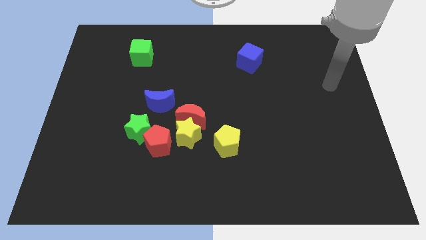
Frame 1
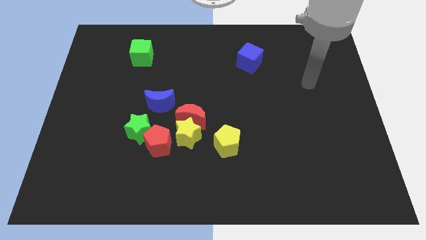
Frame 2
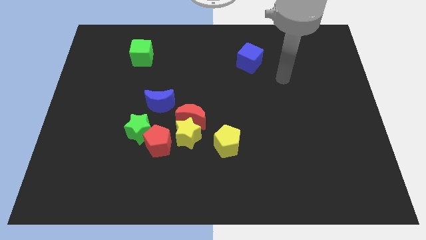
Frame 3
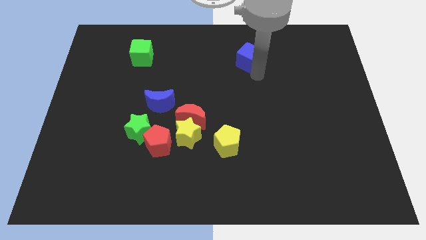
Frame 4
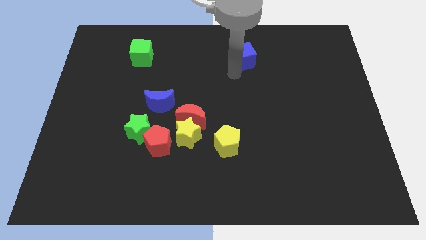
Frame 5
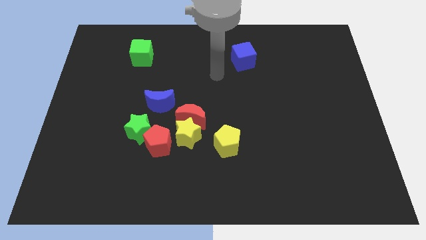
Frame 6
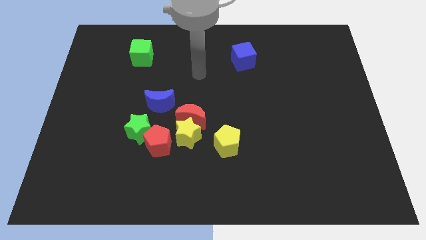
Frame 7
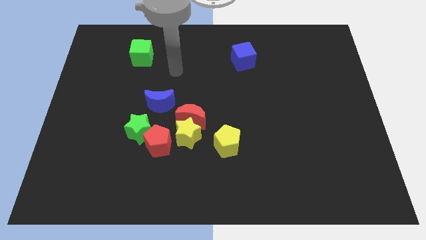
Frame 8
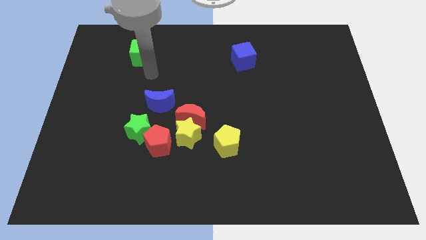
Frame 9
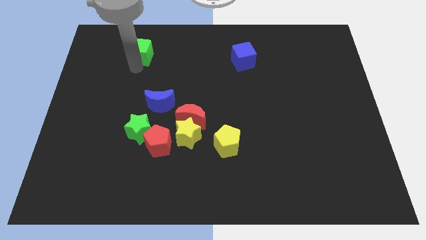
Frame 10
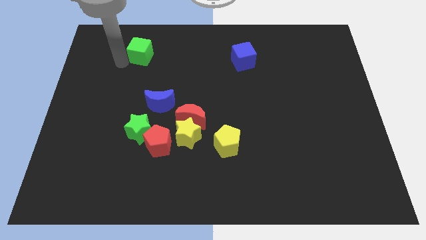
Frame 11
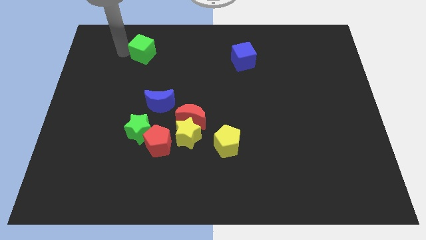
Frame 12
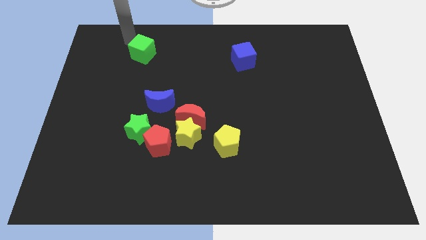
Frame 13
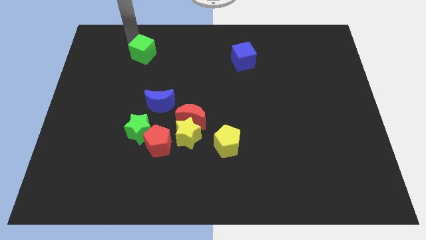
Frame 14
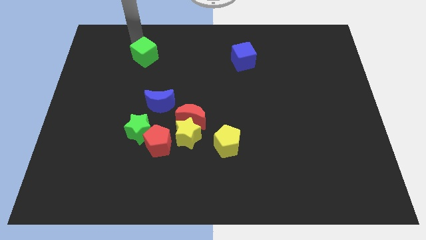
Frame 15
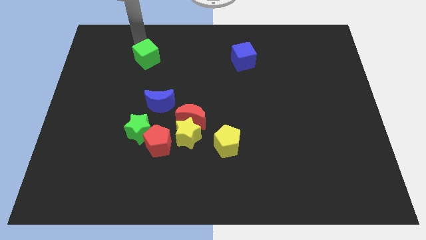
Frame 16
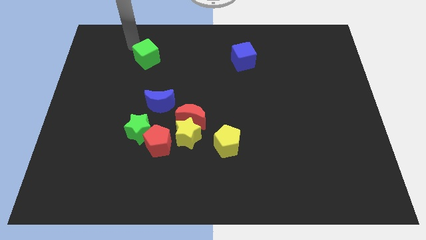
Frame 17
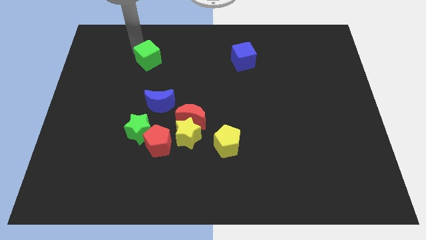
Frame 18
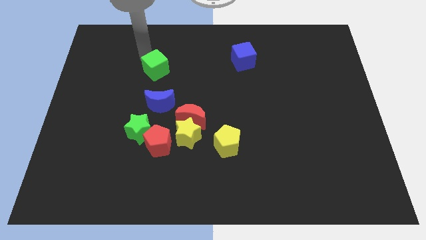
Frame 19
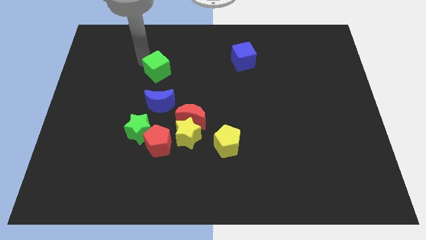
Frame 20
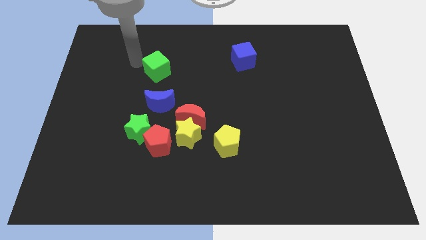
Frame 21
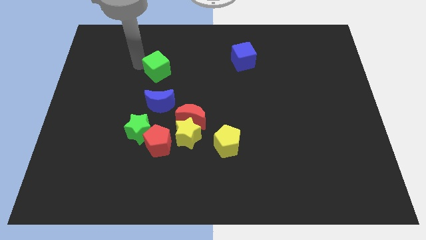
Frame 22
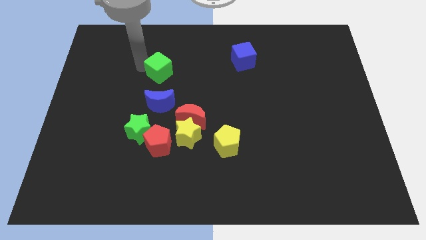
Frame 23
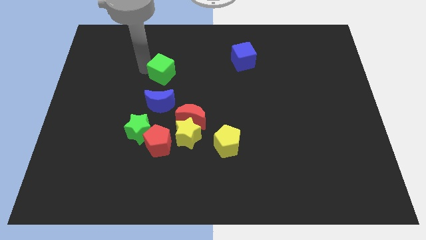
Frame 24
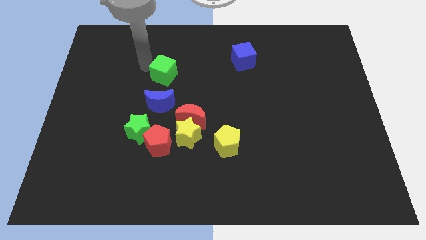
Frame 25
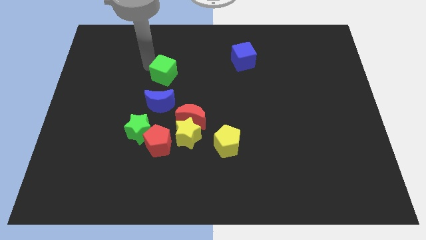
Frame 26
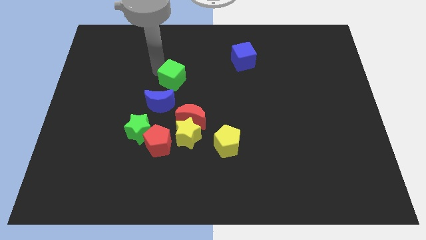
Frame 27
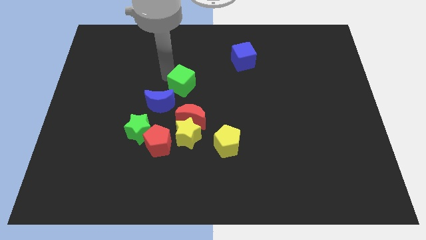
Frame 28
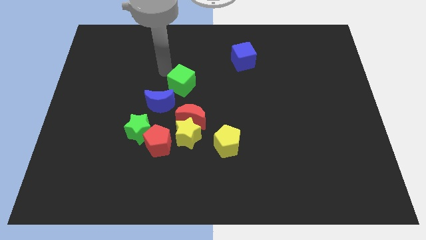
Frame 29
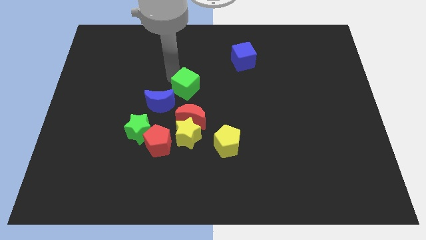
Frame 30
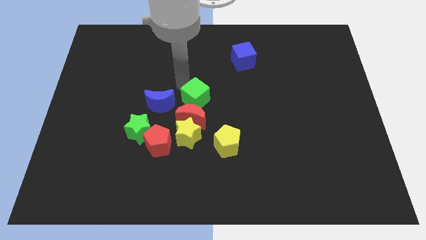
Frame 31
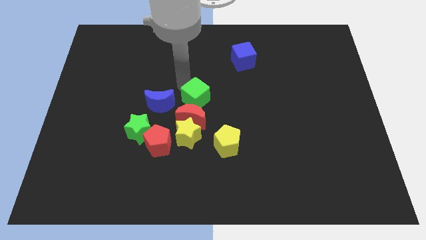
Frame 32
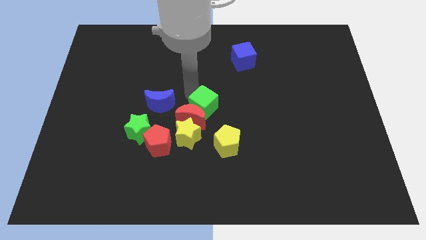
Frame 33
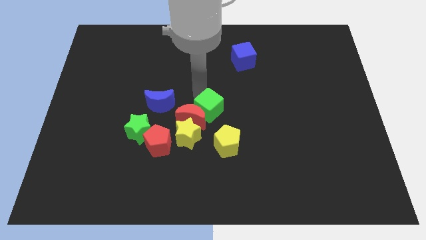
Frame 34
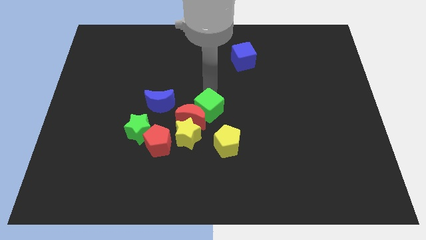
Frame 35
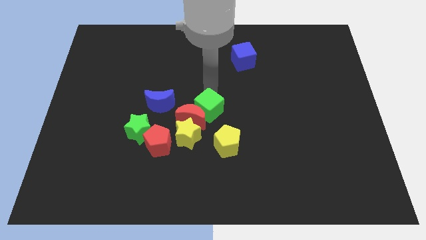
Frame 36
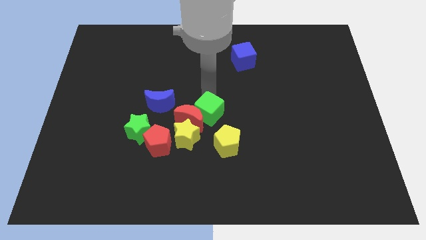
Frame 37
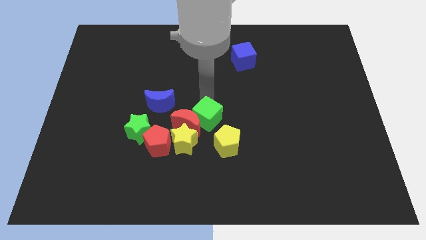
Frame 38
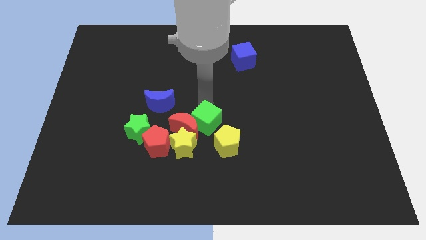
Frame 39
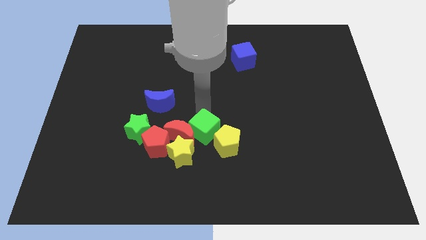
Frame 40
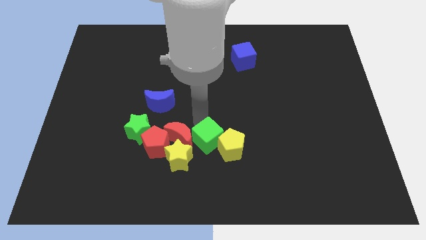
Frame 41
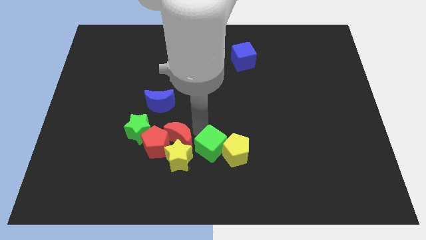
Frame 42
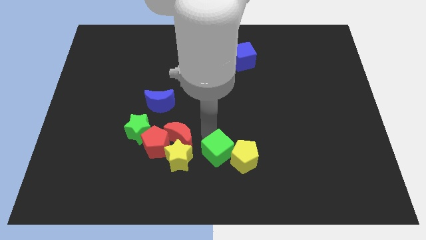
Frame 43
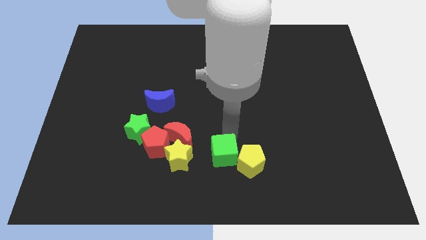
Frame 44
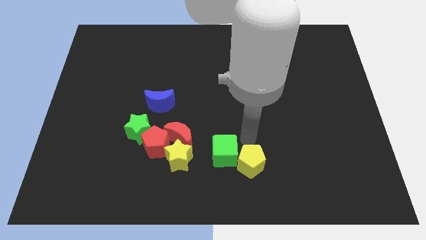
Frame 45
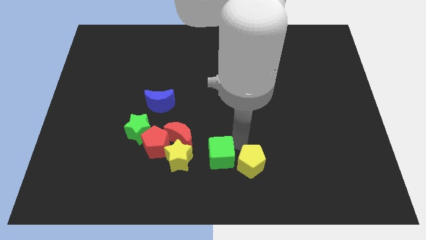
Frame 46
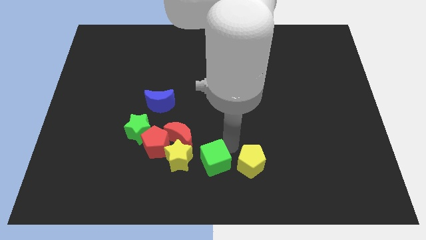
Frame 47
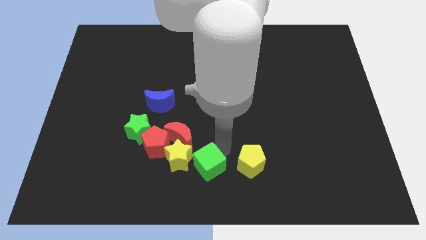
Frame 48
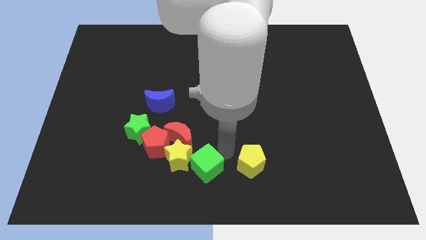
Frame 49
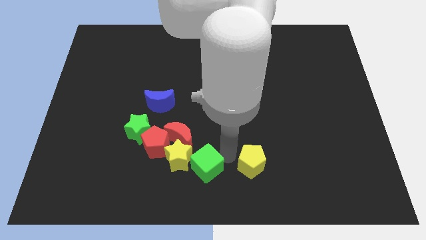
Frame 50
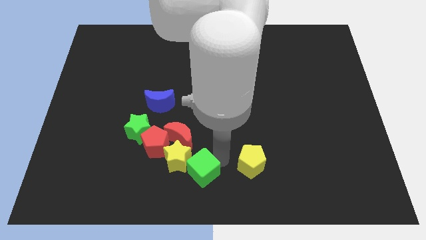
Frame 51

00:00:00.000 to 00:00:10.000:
move the green cube below the red moon

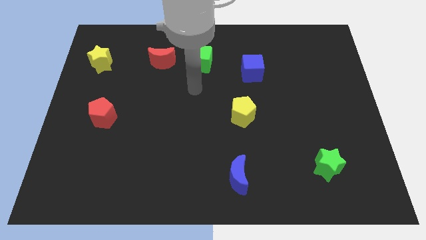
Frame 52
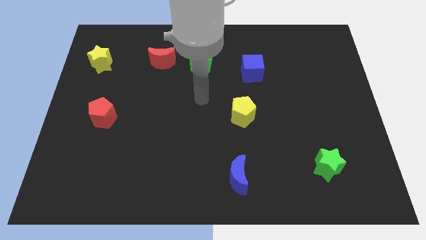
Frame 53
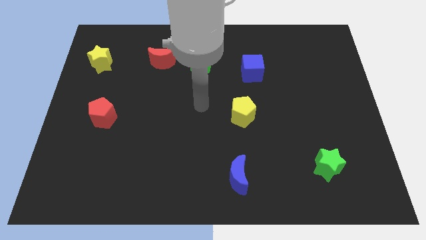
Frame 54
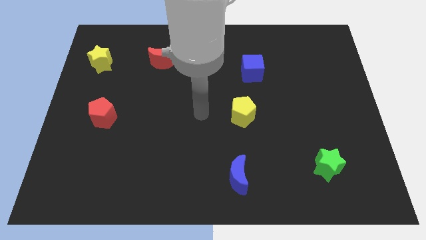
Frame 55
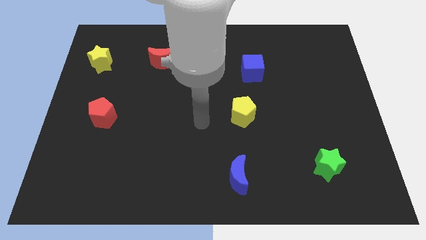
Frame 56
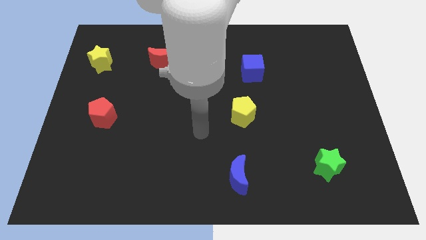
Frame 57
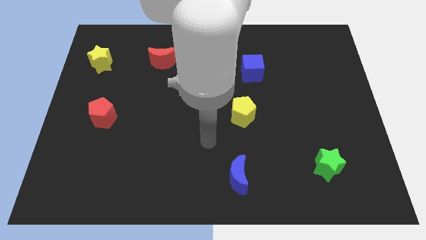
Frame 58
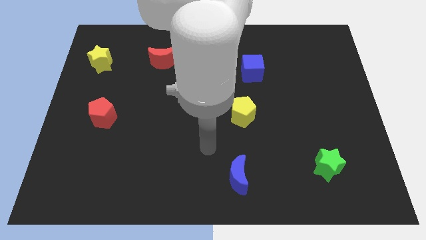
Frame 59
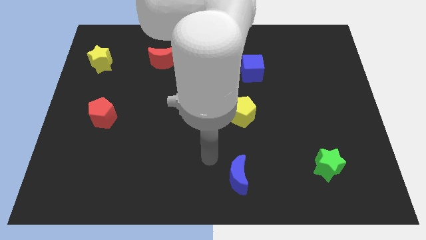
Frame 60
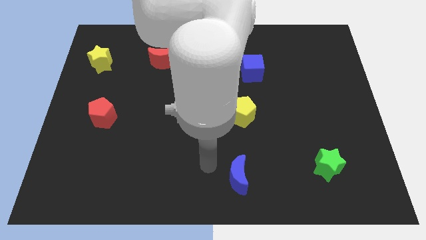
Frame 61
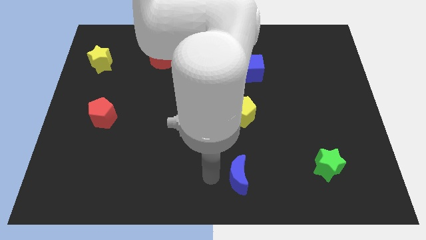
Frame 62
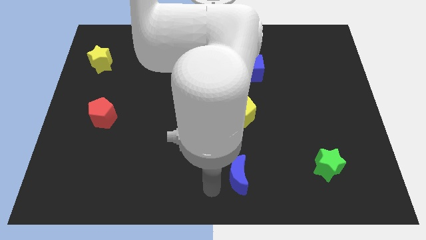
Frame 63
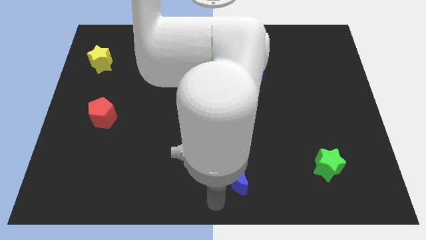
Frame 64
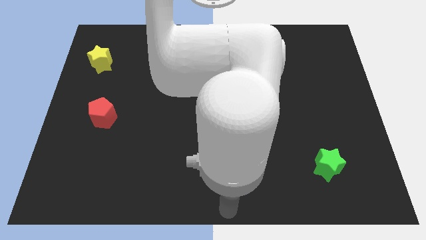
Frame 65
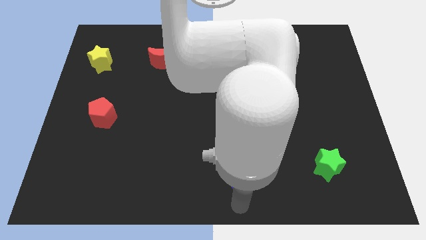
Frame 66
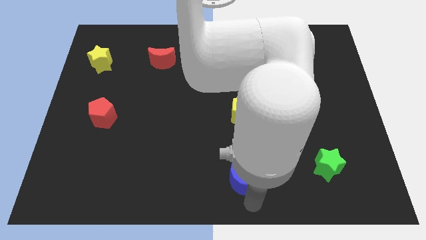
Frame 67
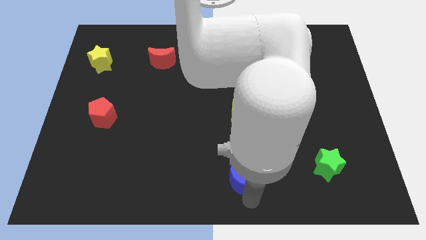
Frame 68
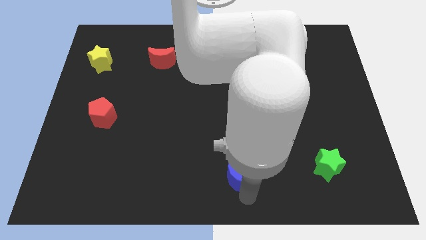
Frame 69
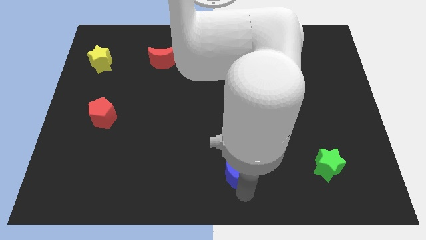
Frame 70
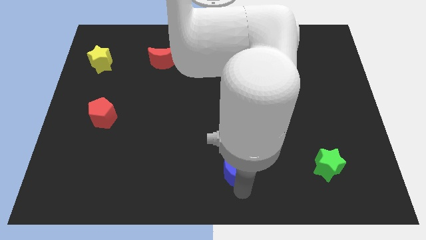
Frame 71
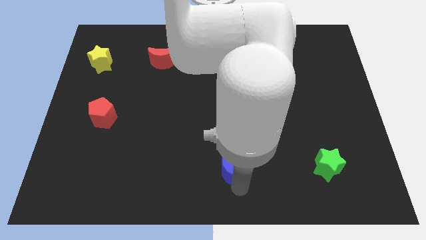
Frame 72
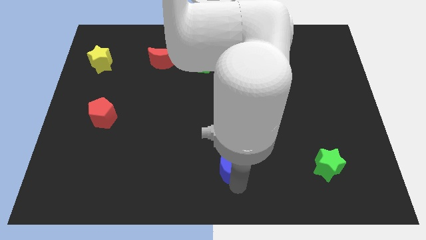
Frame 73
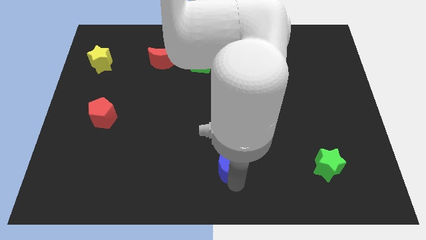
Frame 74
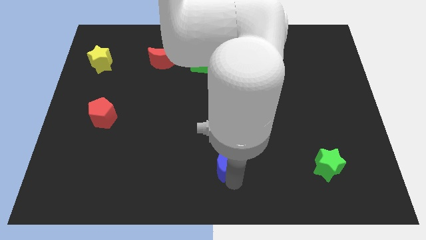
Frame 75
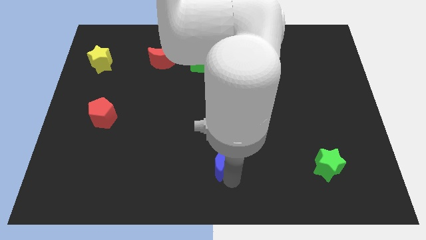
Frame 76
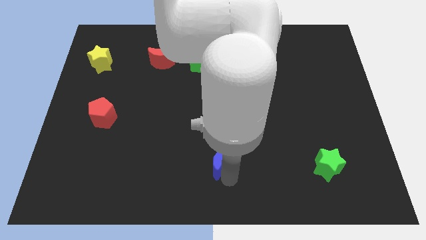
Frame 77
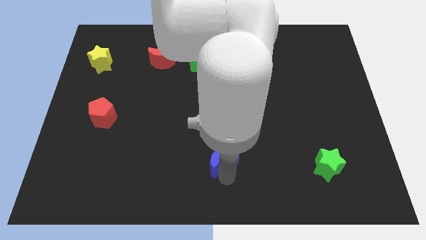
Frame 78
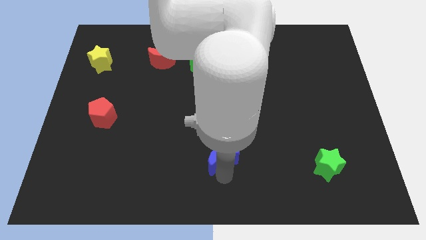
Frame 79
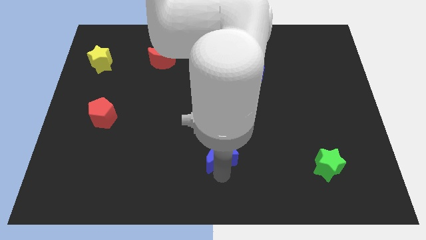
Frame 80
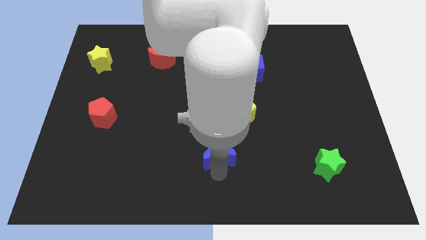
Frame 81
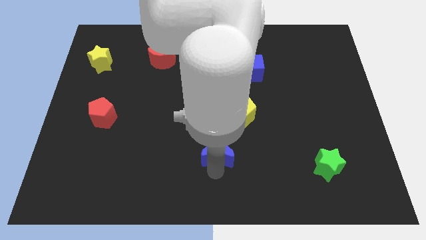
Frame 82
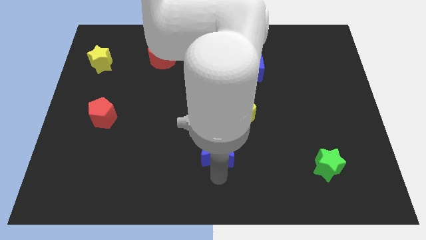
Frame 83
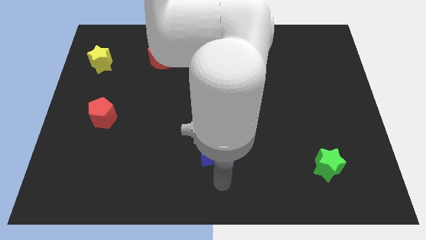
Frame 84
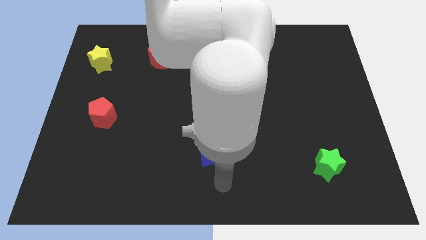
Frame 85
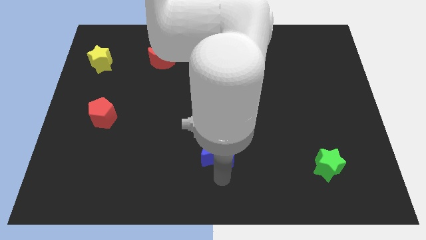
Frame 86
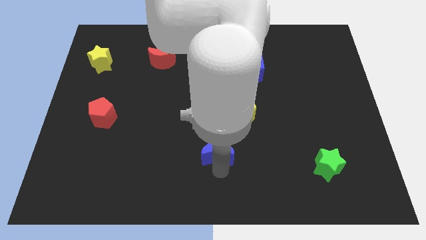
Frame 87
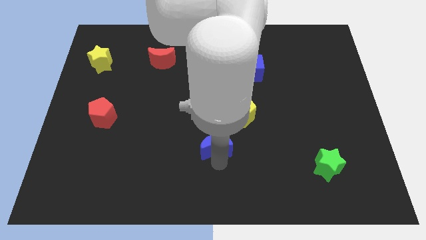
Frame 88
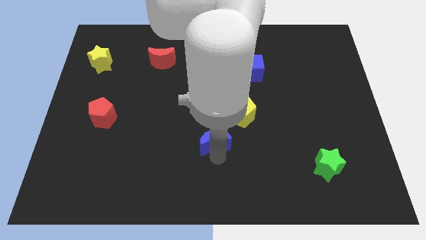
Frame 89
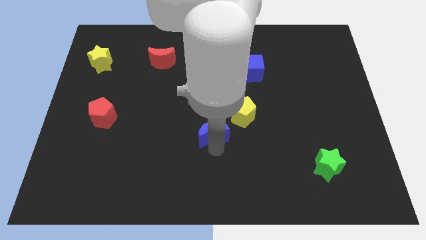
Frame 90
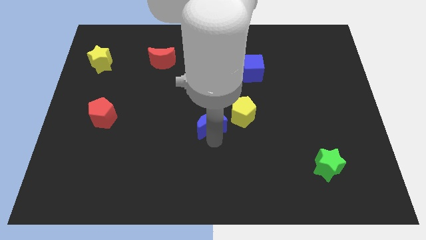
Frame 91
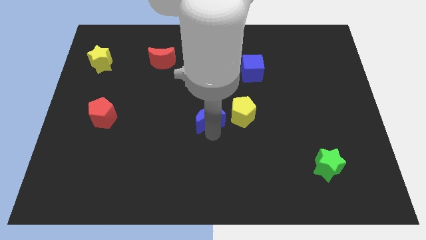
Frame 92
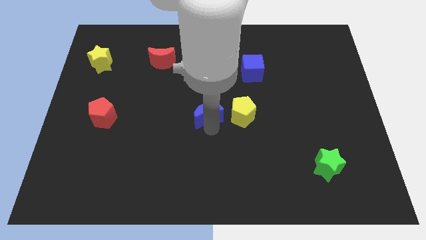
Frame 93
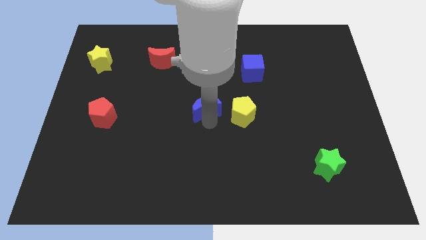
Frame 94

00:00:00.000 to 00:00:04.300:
slide the blue moon below the green cube
